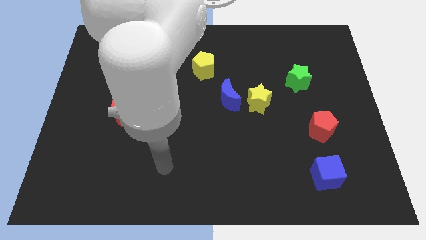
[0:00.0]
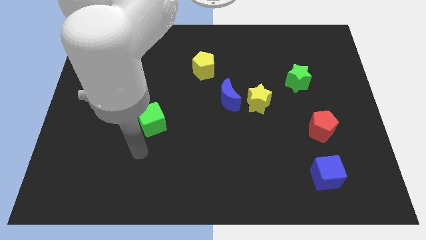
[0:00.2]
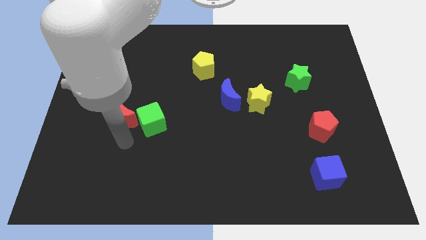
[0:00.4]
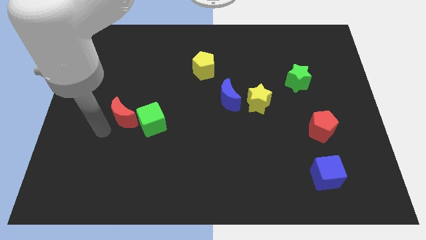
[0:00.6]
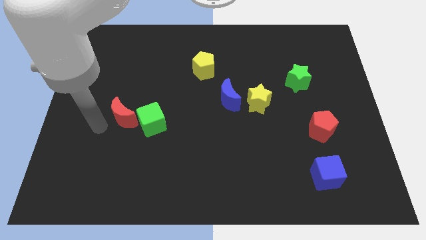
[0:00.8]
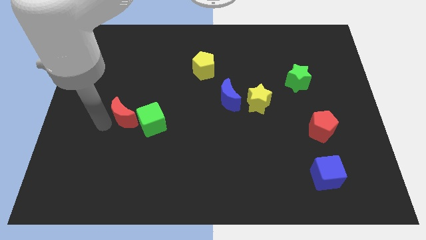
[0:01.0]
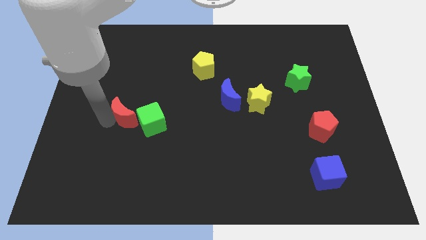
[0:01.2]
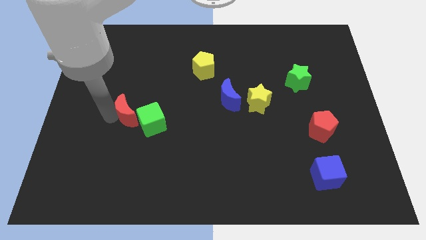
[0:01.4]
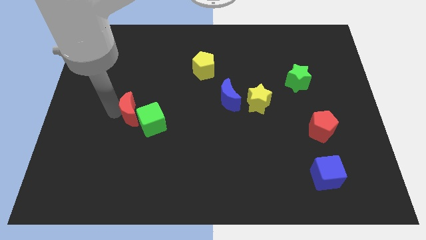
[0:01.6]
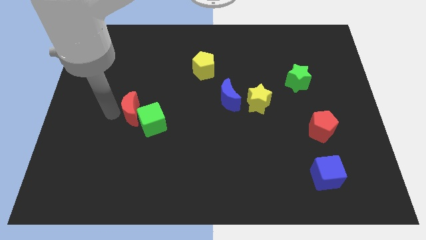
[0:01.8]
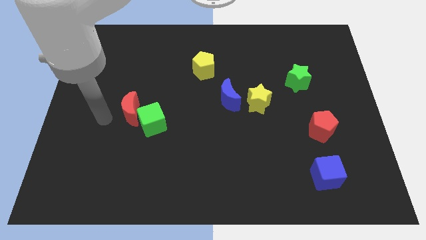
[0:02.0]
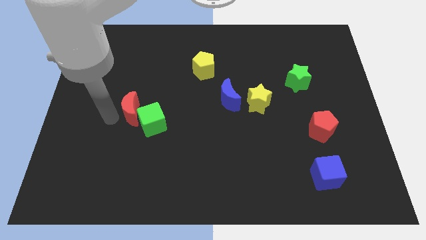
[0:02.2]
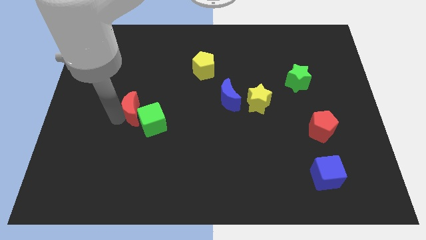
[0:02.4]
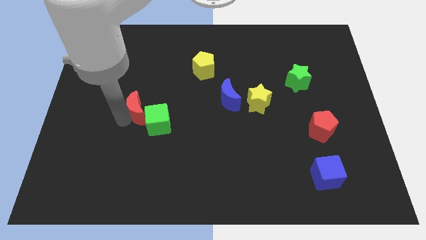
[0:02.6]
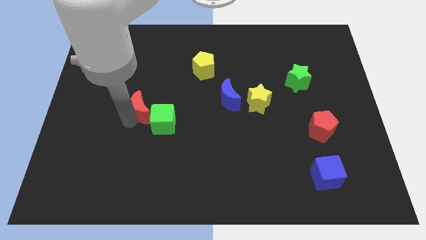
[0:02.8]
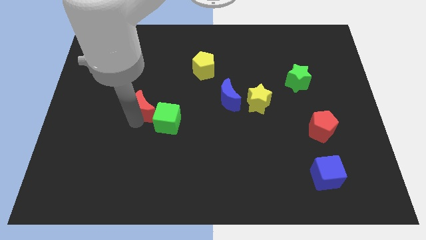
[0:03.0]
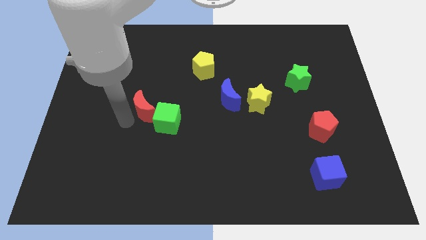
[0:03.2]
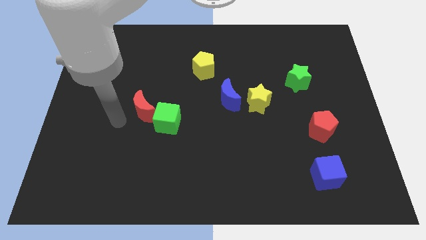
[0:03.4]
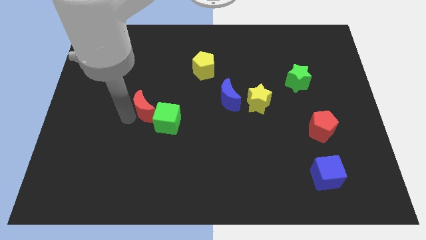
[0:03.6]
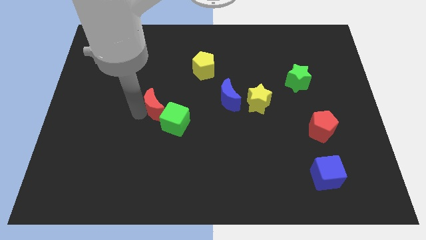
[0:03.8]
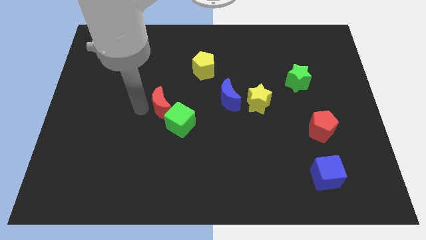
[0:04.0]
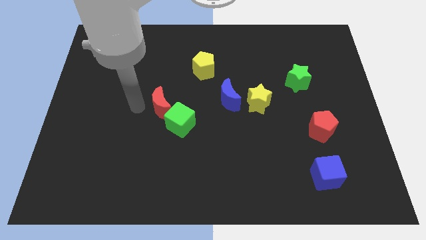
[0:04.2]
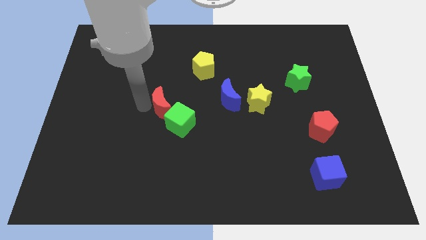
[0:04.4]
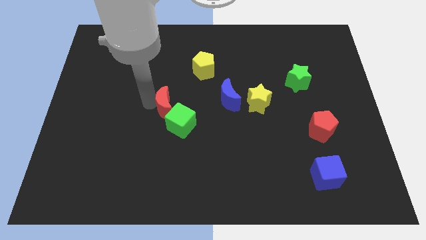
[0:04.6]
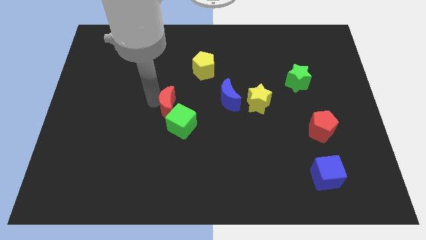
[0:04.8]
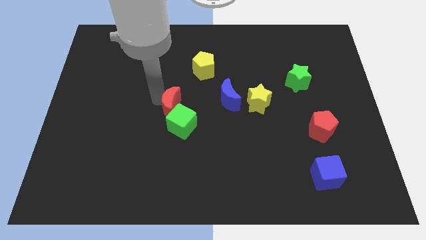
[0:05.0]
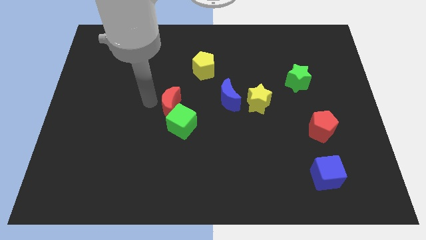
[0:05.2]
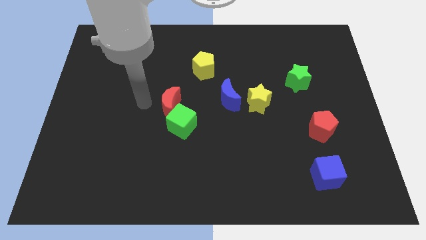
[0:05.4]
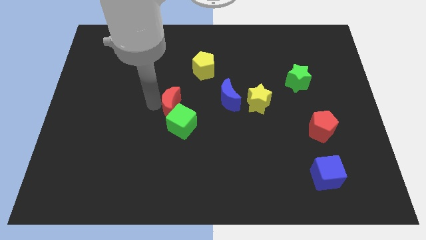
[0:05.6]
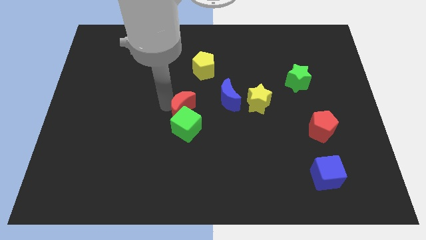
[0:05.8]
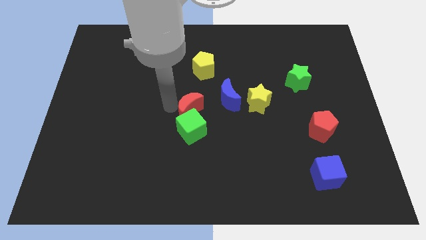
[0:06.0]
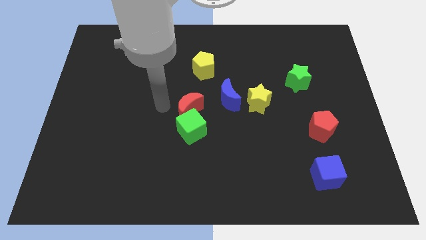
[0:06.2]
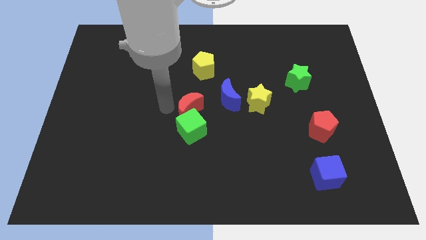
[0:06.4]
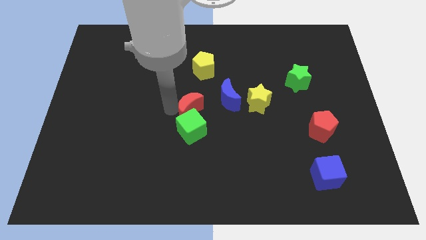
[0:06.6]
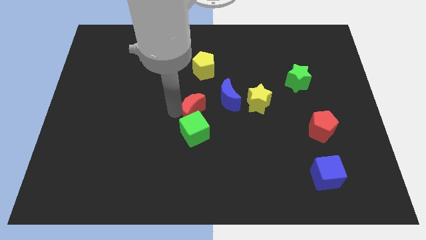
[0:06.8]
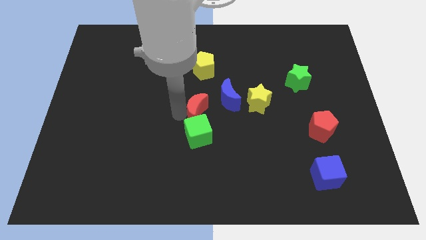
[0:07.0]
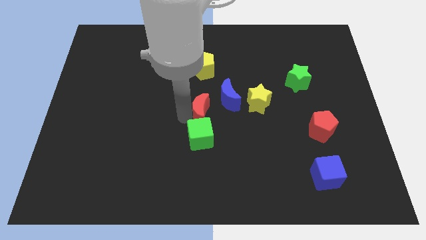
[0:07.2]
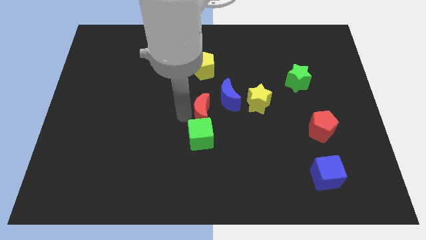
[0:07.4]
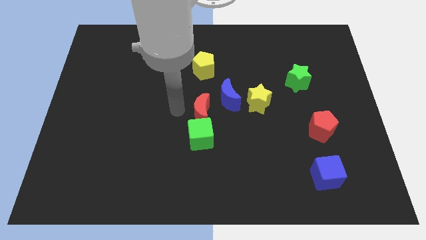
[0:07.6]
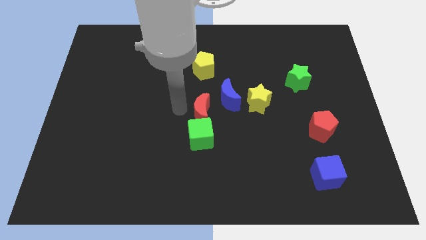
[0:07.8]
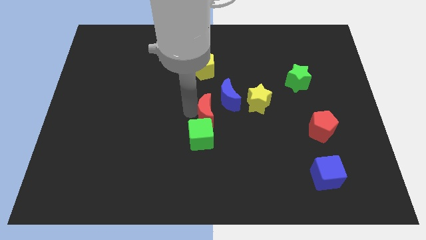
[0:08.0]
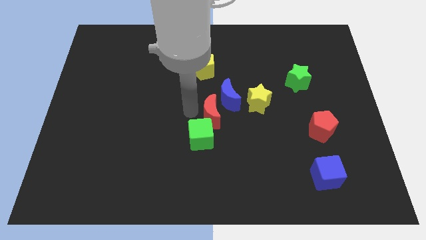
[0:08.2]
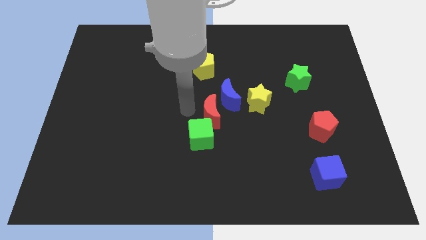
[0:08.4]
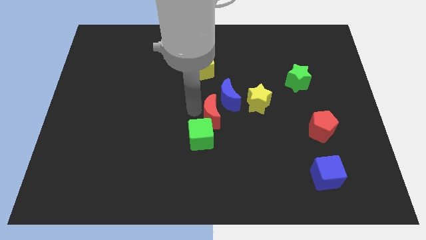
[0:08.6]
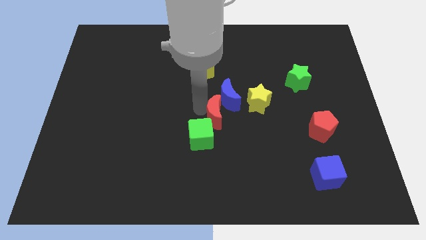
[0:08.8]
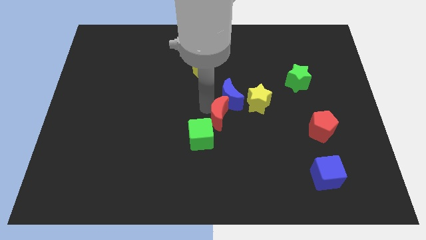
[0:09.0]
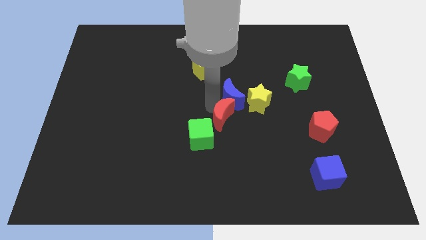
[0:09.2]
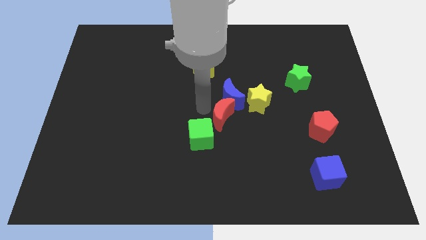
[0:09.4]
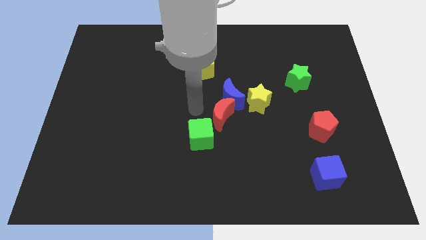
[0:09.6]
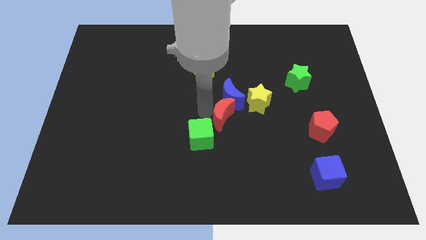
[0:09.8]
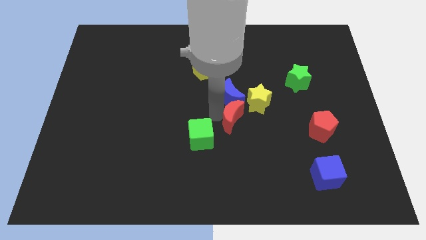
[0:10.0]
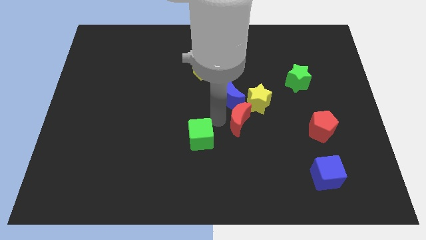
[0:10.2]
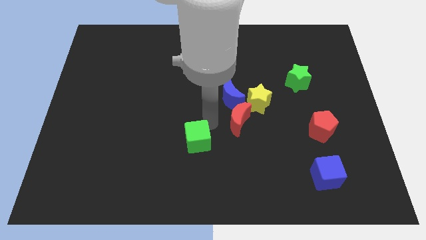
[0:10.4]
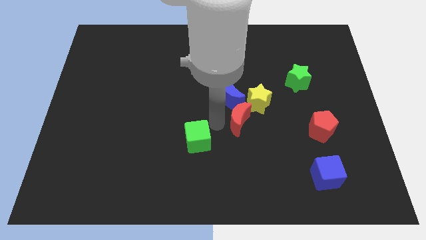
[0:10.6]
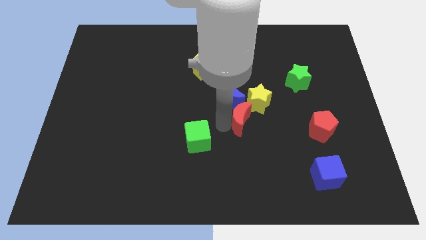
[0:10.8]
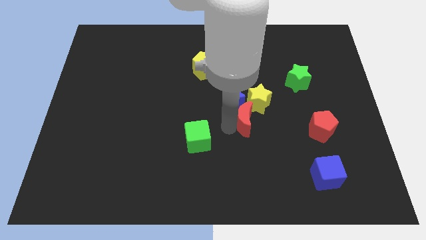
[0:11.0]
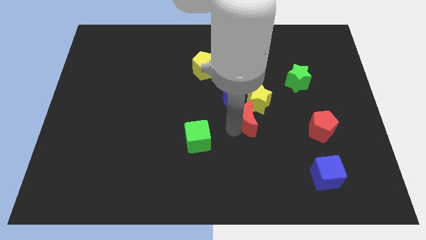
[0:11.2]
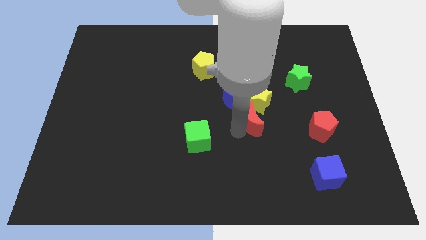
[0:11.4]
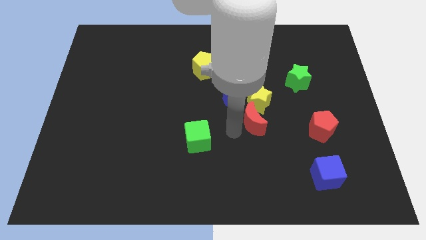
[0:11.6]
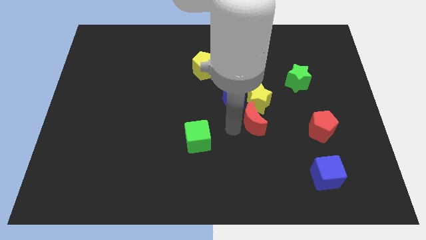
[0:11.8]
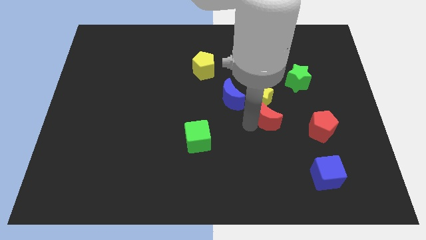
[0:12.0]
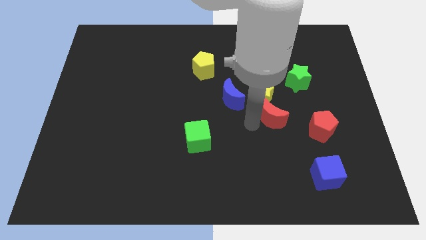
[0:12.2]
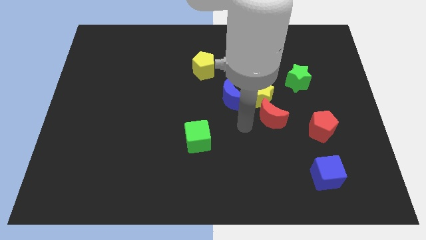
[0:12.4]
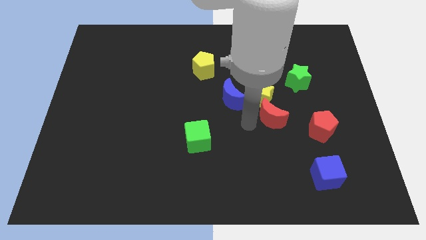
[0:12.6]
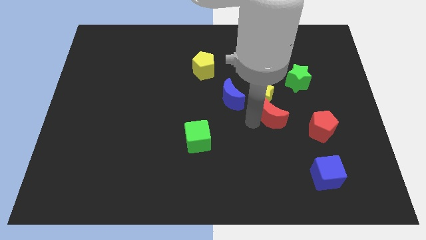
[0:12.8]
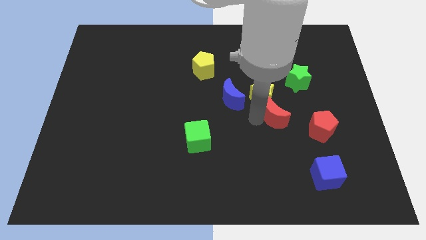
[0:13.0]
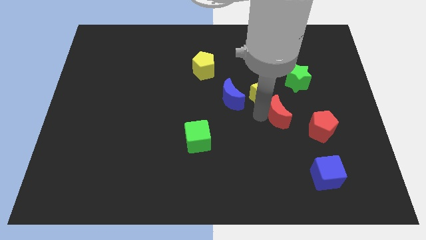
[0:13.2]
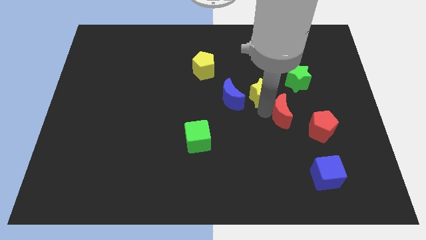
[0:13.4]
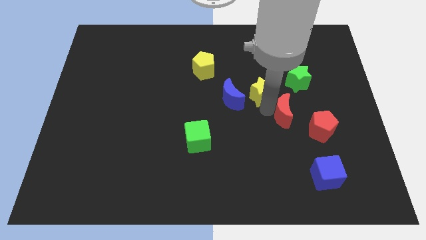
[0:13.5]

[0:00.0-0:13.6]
slide the red moon to the bottom side of the green star
